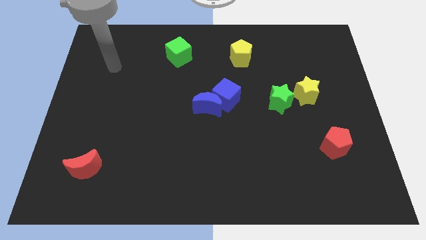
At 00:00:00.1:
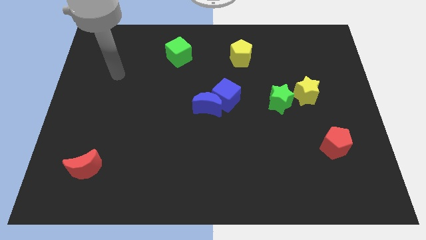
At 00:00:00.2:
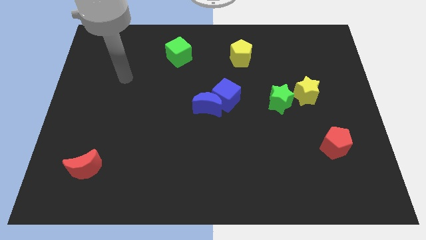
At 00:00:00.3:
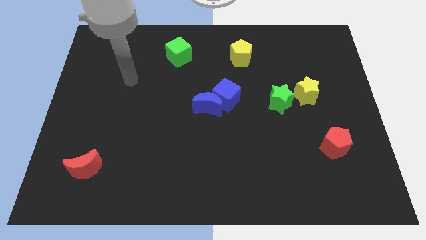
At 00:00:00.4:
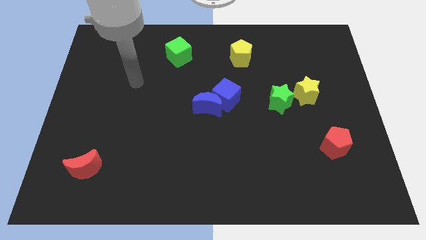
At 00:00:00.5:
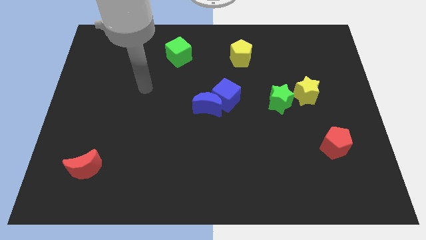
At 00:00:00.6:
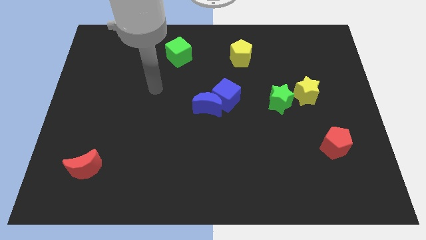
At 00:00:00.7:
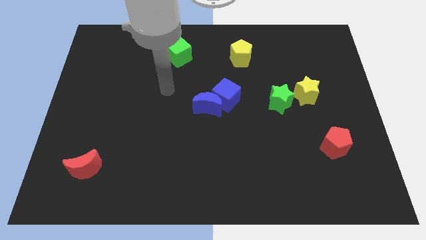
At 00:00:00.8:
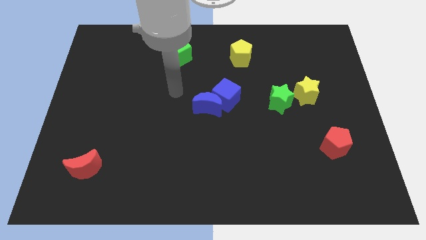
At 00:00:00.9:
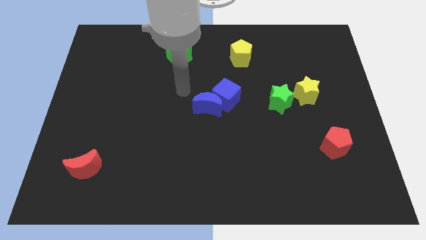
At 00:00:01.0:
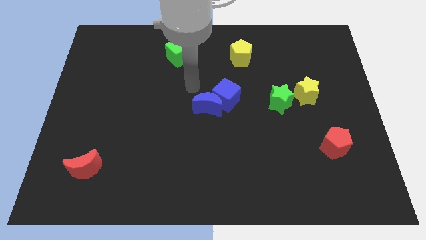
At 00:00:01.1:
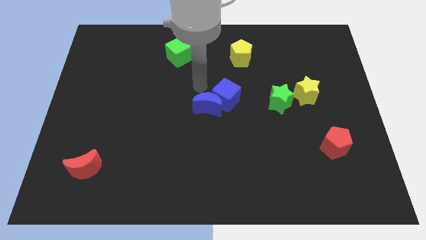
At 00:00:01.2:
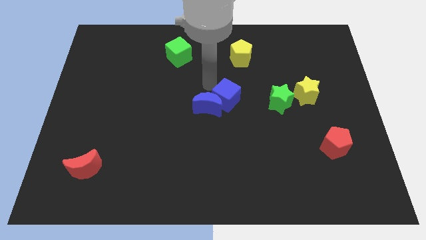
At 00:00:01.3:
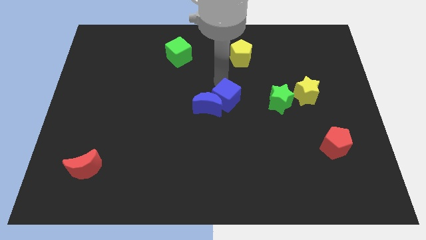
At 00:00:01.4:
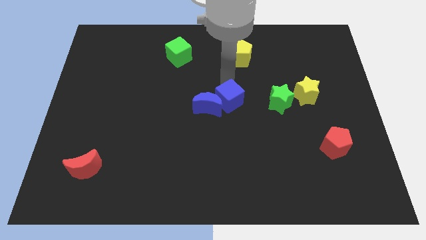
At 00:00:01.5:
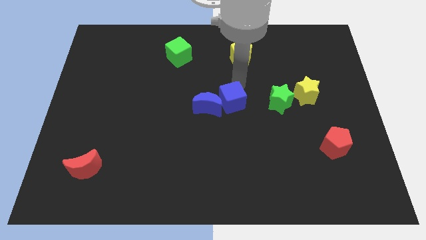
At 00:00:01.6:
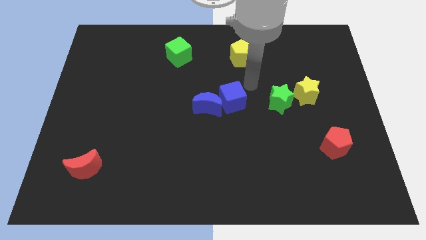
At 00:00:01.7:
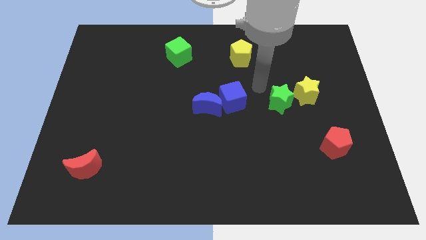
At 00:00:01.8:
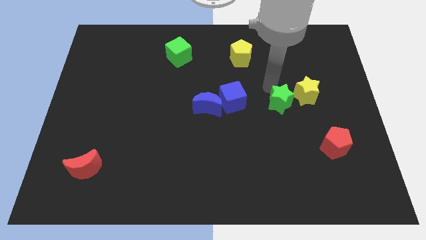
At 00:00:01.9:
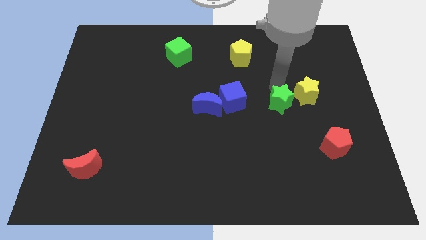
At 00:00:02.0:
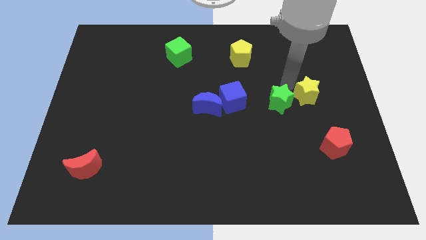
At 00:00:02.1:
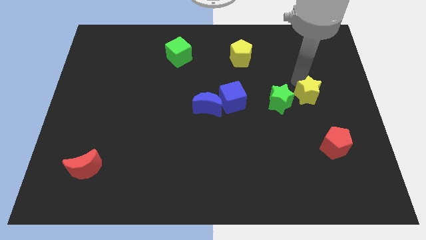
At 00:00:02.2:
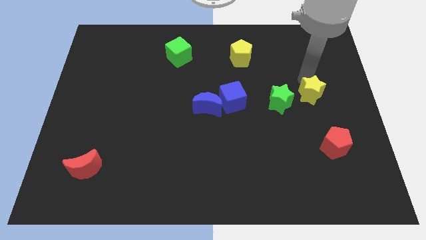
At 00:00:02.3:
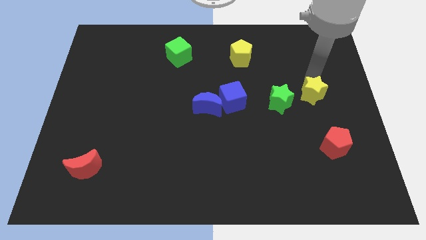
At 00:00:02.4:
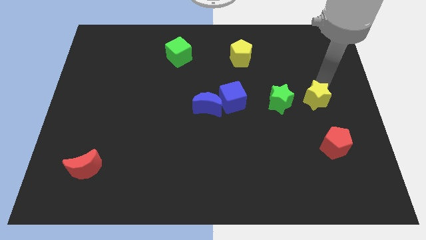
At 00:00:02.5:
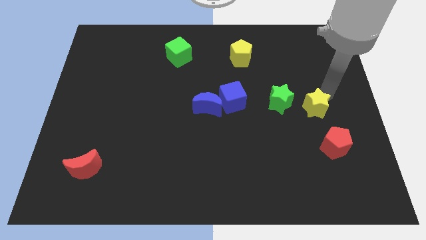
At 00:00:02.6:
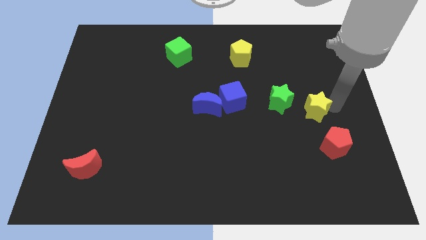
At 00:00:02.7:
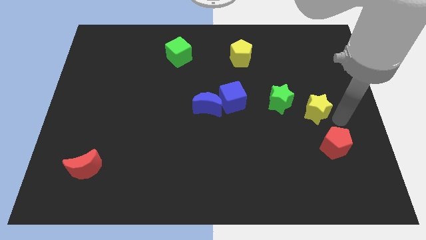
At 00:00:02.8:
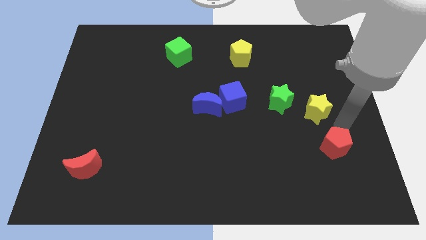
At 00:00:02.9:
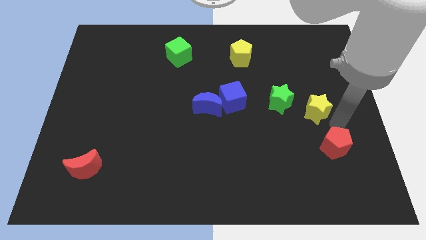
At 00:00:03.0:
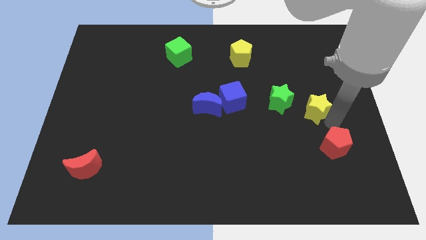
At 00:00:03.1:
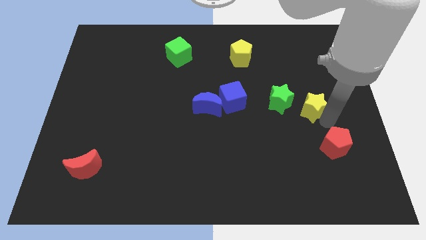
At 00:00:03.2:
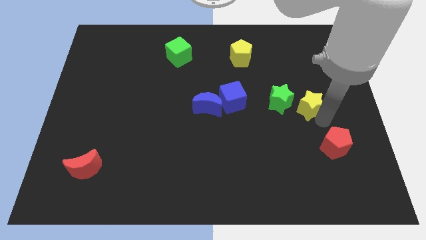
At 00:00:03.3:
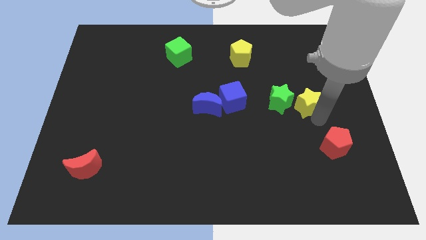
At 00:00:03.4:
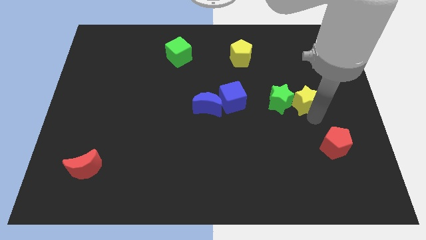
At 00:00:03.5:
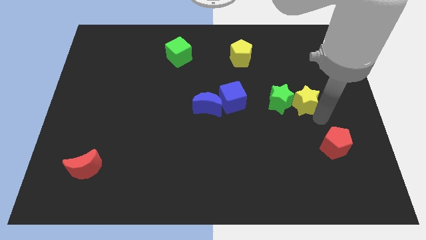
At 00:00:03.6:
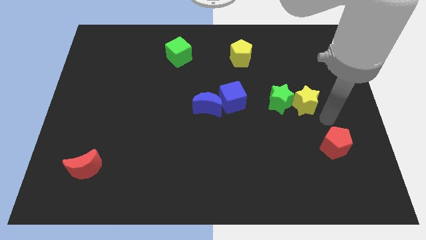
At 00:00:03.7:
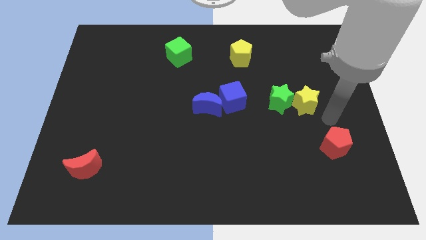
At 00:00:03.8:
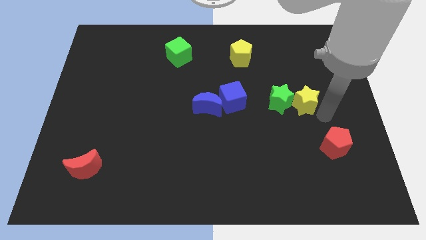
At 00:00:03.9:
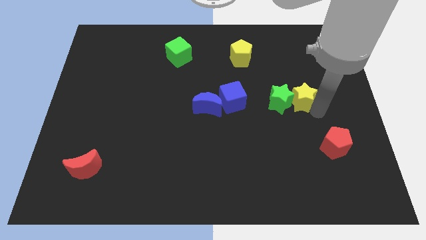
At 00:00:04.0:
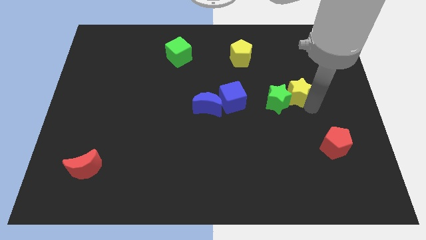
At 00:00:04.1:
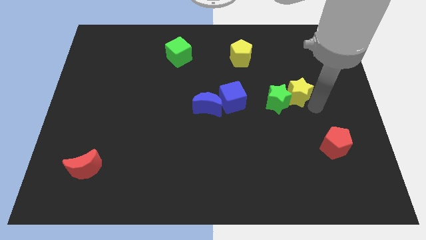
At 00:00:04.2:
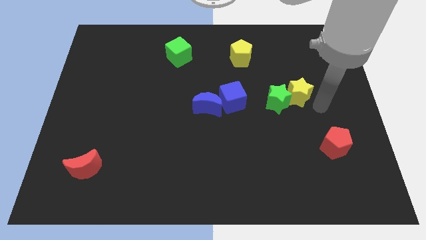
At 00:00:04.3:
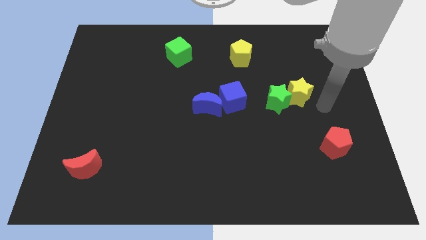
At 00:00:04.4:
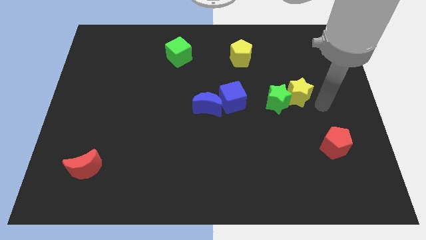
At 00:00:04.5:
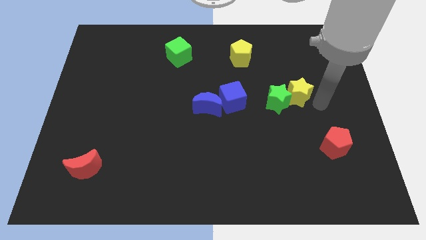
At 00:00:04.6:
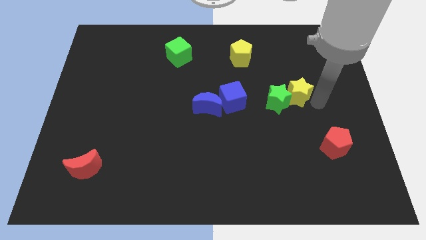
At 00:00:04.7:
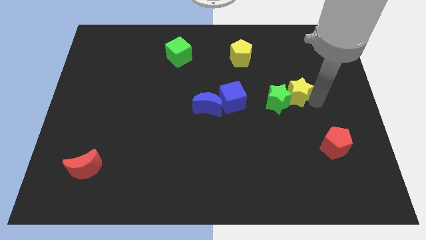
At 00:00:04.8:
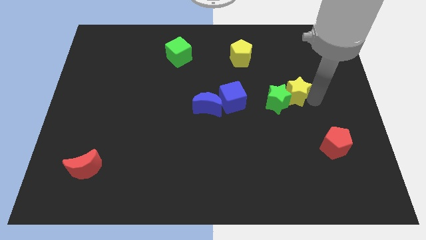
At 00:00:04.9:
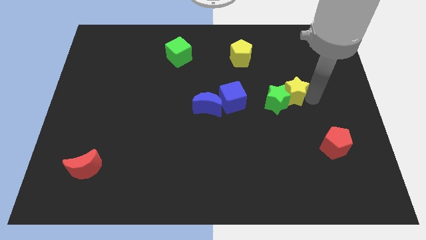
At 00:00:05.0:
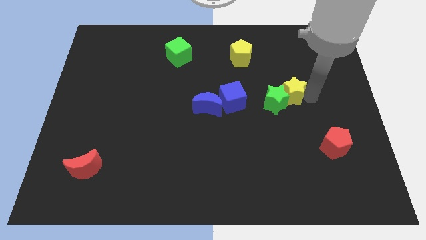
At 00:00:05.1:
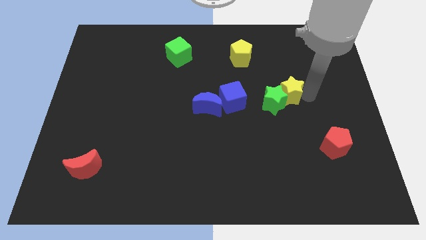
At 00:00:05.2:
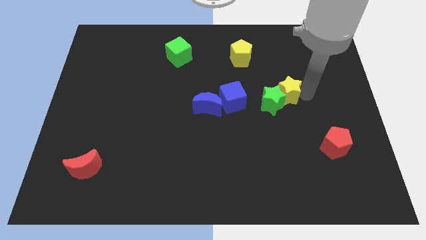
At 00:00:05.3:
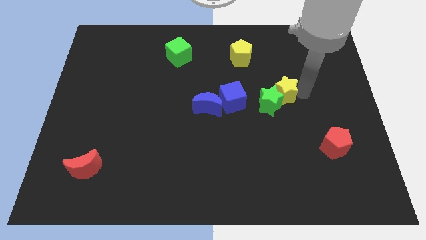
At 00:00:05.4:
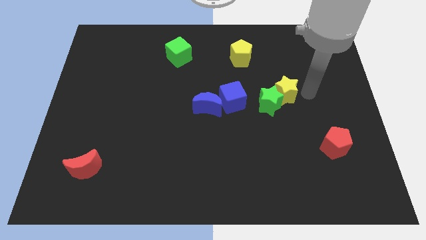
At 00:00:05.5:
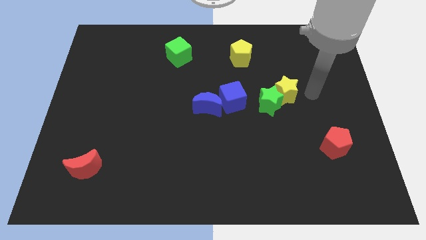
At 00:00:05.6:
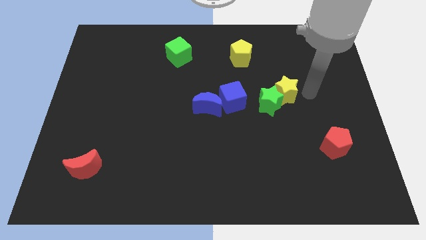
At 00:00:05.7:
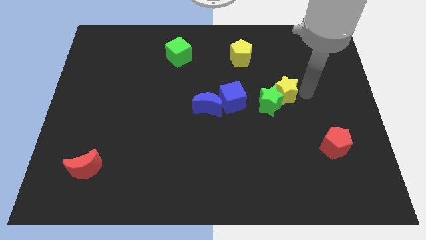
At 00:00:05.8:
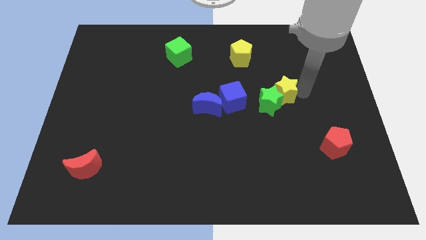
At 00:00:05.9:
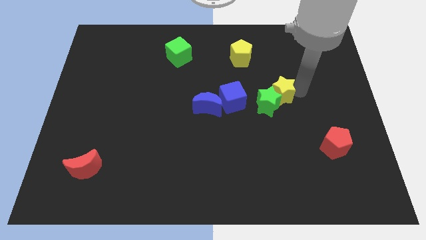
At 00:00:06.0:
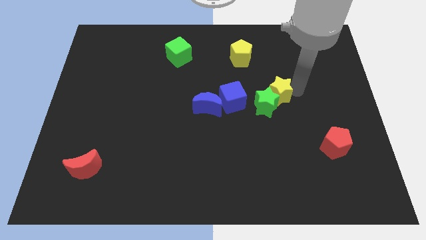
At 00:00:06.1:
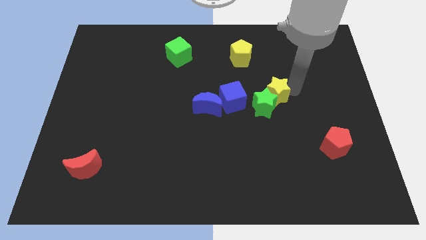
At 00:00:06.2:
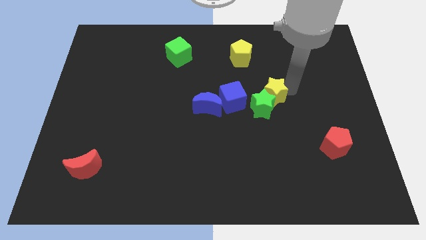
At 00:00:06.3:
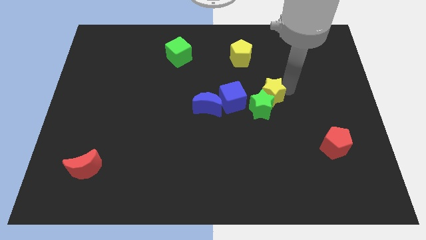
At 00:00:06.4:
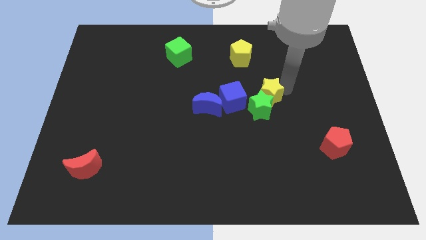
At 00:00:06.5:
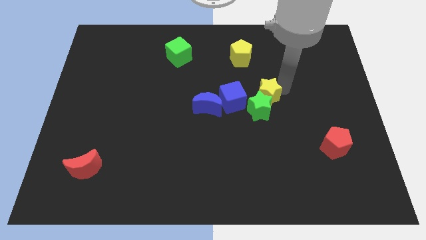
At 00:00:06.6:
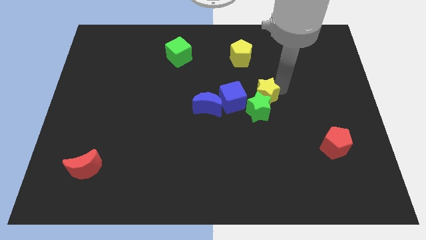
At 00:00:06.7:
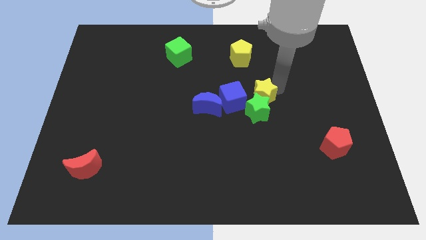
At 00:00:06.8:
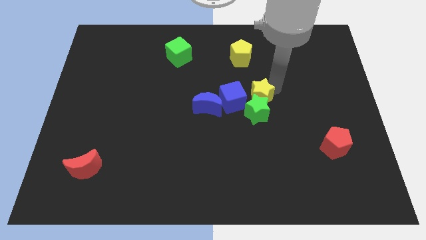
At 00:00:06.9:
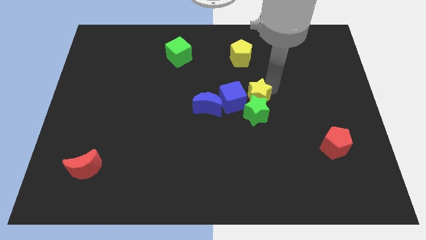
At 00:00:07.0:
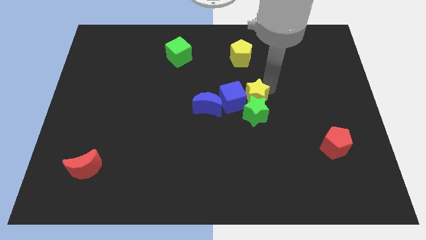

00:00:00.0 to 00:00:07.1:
move the yellow star towards the blue cube
